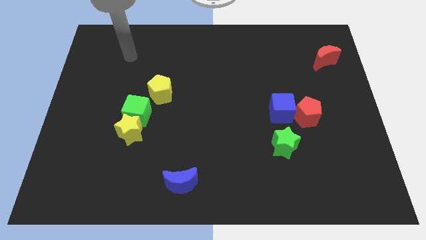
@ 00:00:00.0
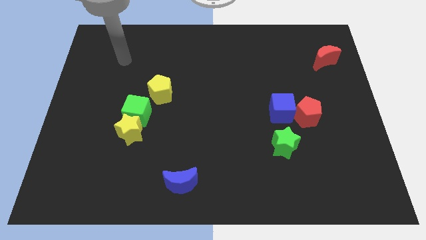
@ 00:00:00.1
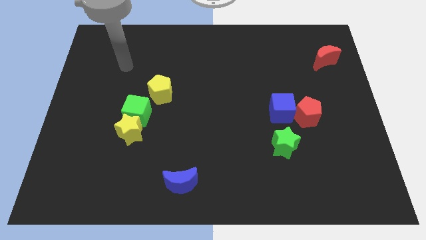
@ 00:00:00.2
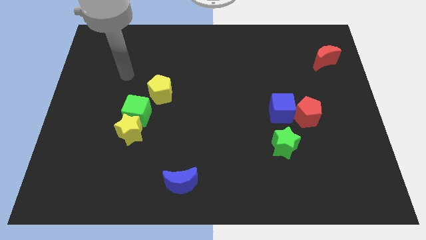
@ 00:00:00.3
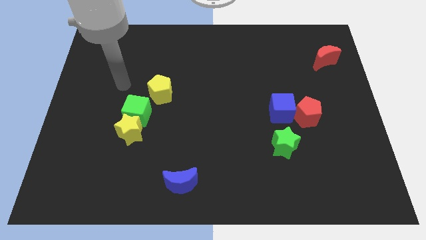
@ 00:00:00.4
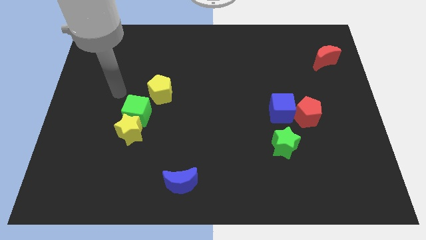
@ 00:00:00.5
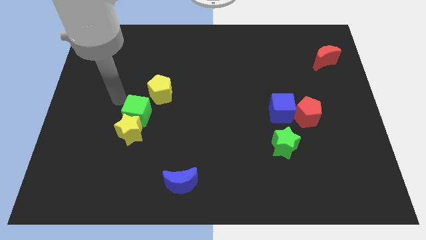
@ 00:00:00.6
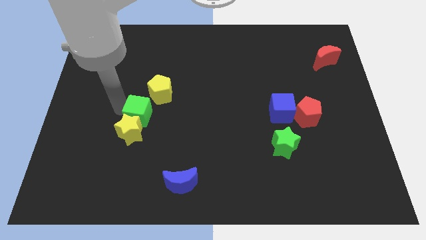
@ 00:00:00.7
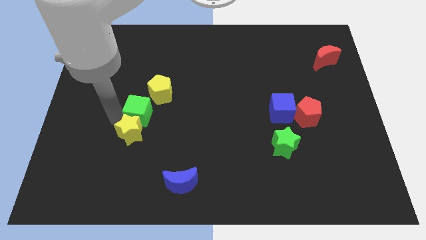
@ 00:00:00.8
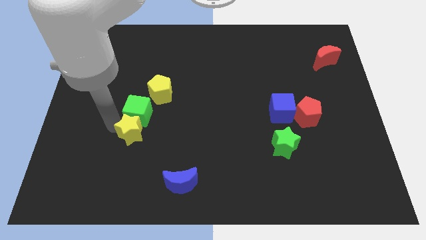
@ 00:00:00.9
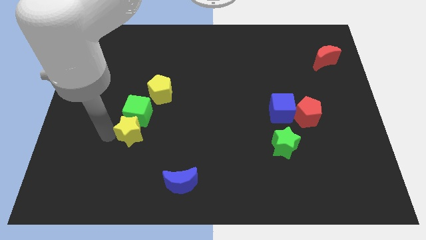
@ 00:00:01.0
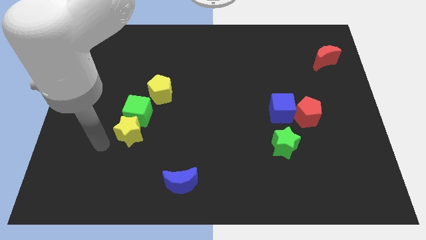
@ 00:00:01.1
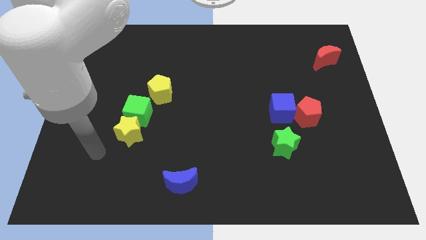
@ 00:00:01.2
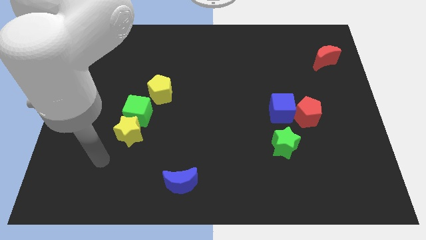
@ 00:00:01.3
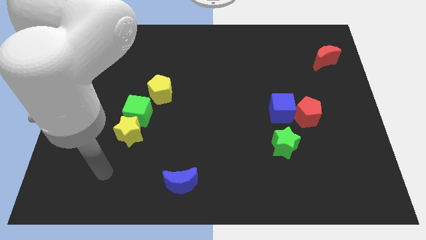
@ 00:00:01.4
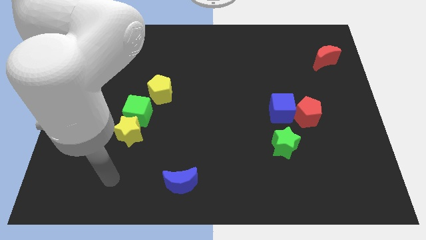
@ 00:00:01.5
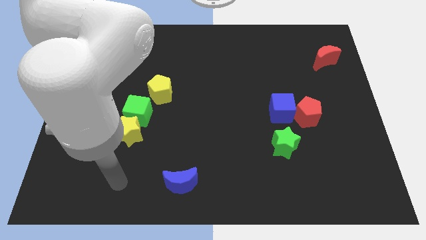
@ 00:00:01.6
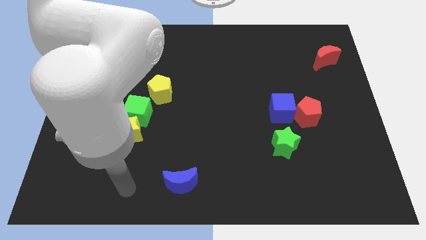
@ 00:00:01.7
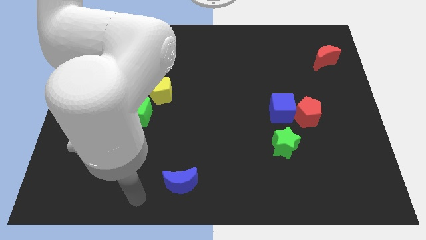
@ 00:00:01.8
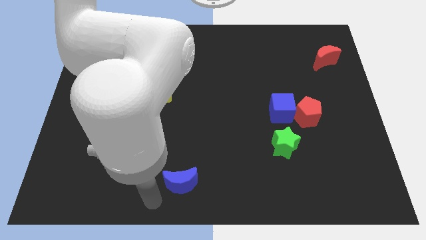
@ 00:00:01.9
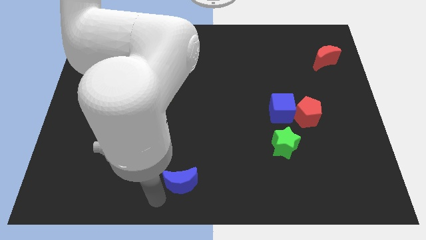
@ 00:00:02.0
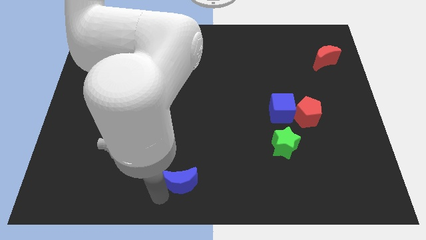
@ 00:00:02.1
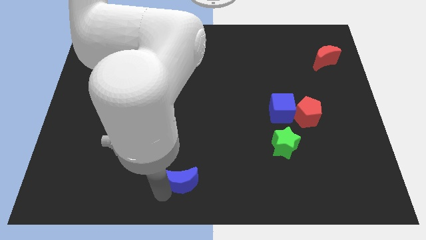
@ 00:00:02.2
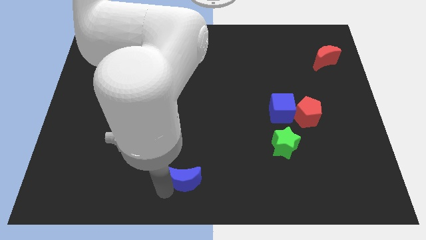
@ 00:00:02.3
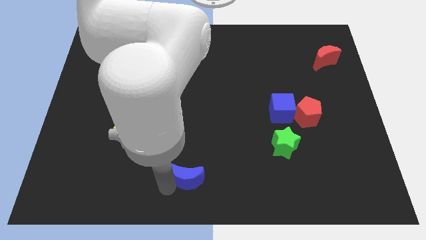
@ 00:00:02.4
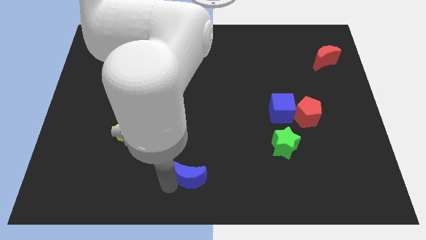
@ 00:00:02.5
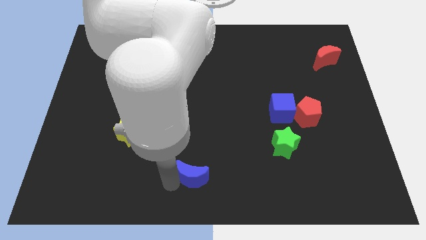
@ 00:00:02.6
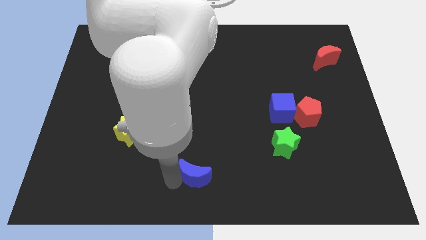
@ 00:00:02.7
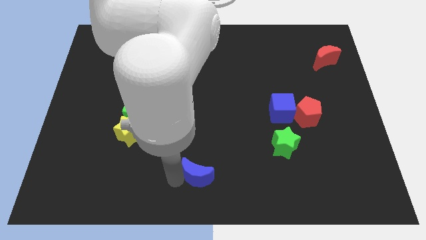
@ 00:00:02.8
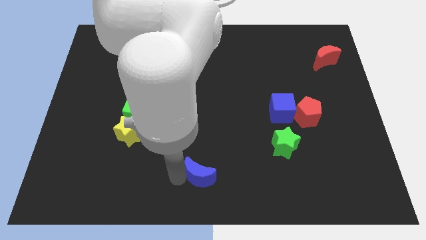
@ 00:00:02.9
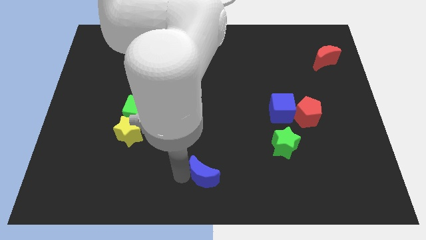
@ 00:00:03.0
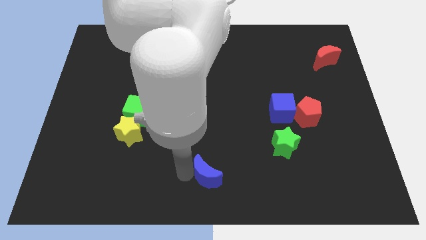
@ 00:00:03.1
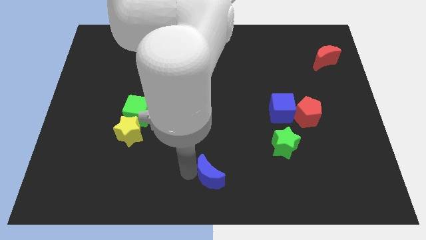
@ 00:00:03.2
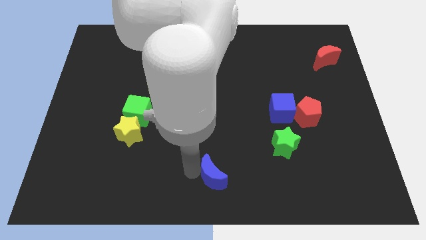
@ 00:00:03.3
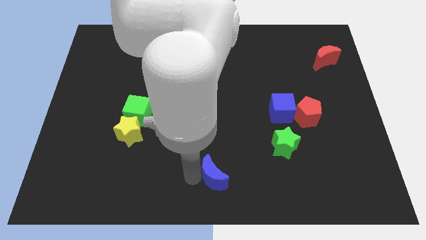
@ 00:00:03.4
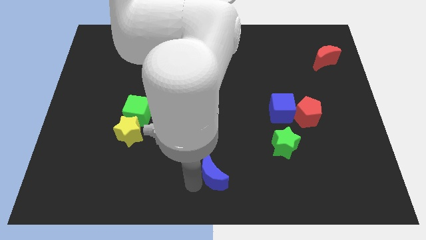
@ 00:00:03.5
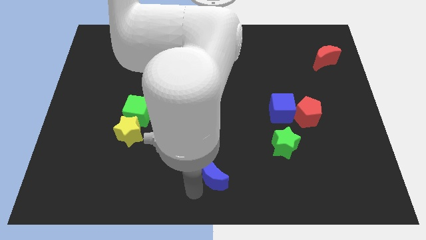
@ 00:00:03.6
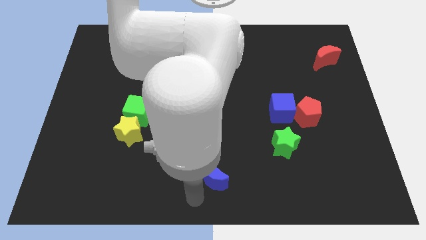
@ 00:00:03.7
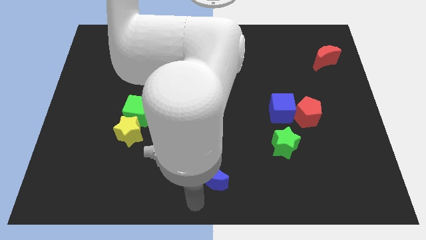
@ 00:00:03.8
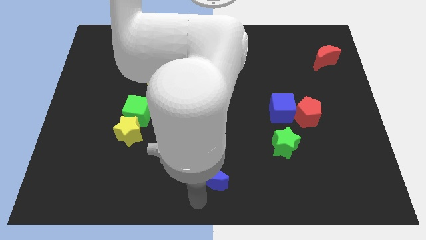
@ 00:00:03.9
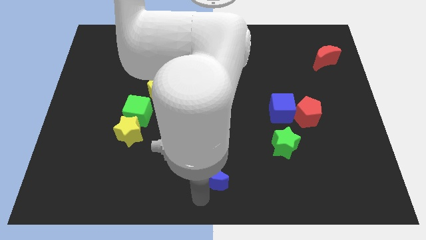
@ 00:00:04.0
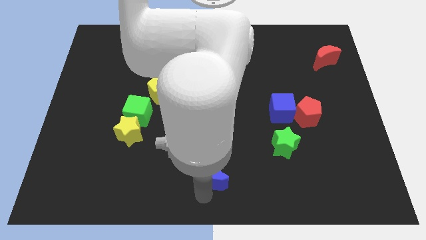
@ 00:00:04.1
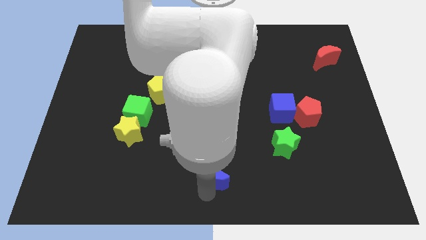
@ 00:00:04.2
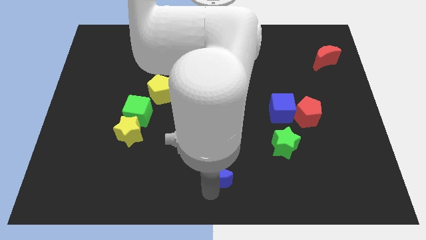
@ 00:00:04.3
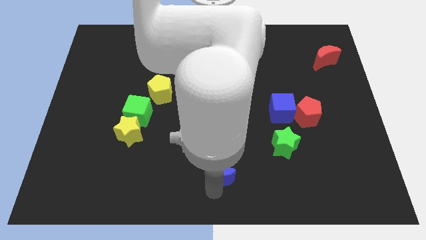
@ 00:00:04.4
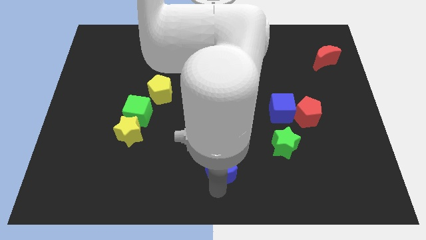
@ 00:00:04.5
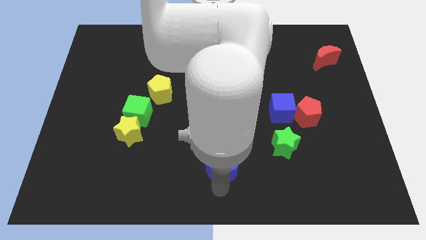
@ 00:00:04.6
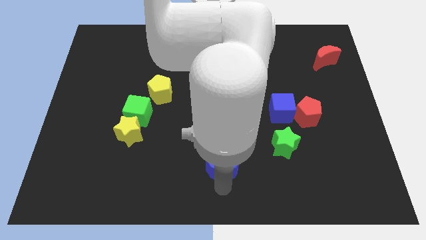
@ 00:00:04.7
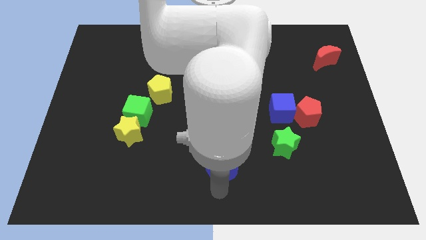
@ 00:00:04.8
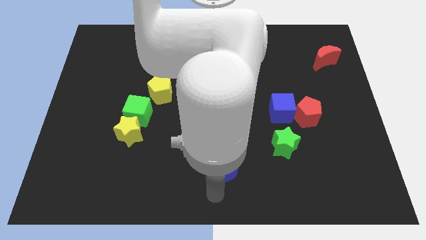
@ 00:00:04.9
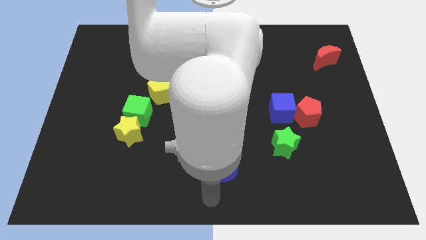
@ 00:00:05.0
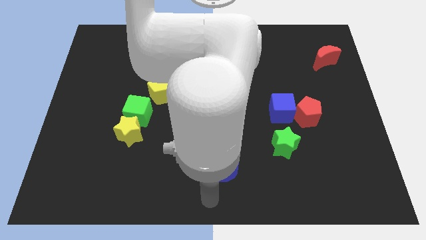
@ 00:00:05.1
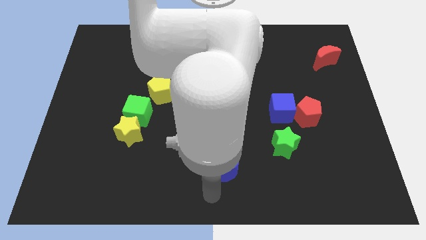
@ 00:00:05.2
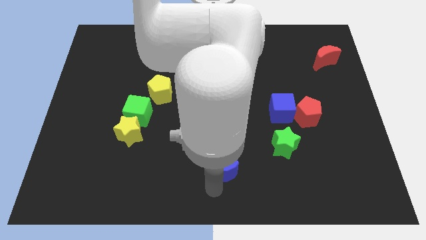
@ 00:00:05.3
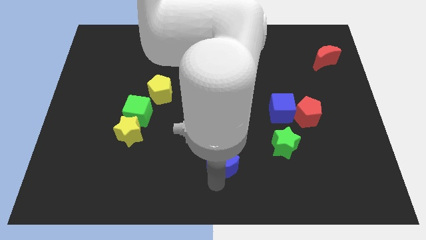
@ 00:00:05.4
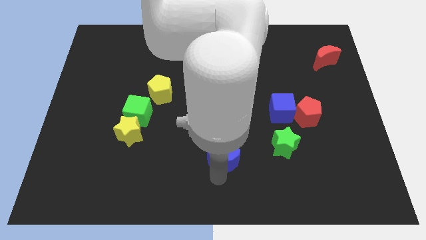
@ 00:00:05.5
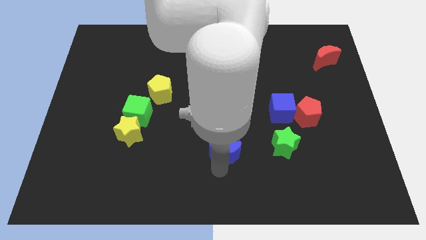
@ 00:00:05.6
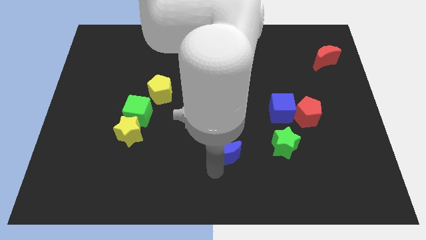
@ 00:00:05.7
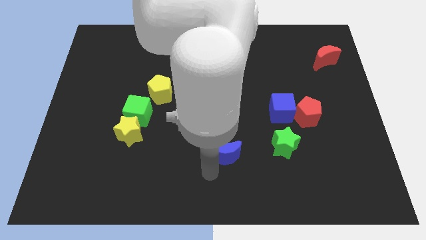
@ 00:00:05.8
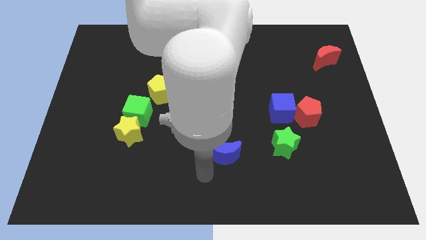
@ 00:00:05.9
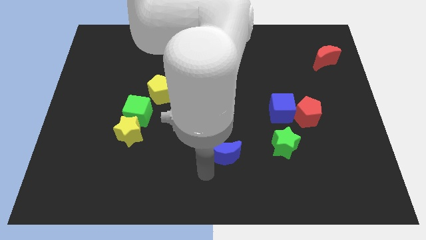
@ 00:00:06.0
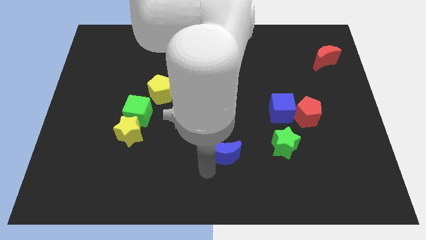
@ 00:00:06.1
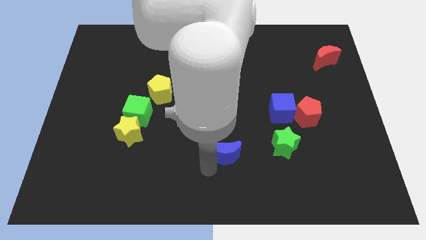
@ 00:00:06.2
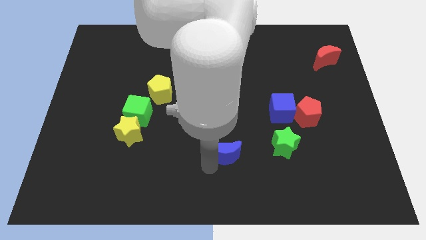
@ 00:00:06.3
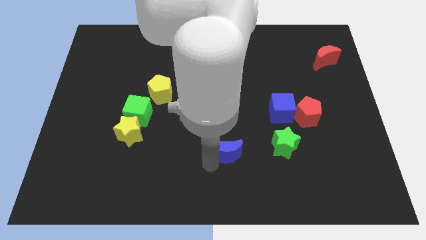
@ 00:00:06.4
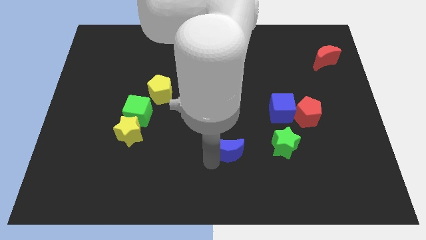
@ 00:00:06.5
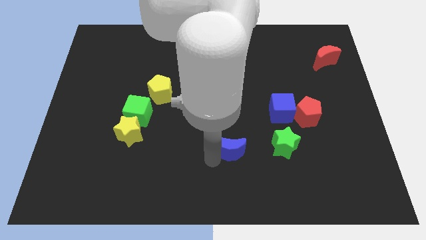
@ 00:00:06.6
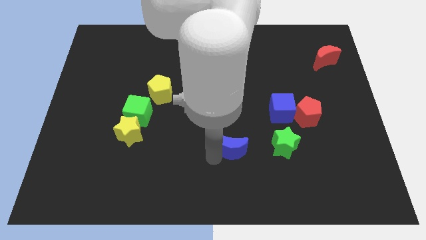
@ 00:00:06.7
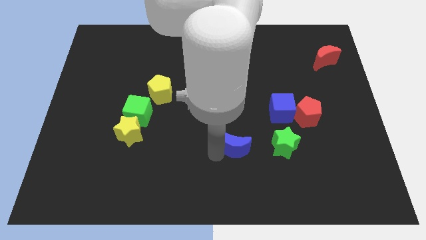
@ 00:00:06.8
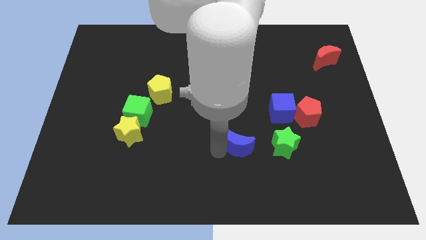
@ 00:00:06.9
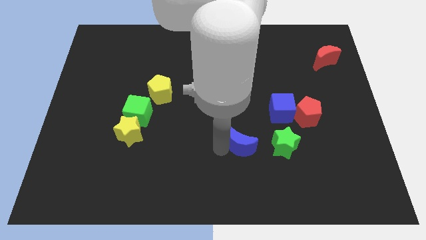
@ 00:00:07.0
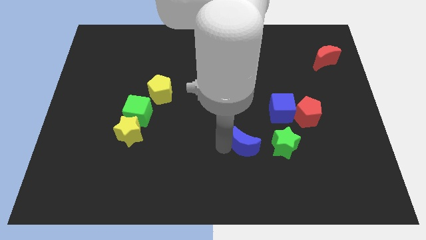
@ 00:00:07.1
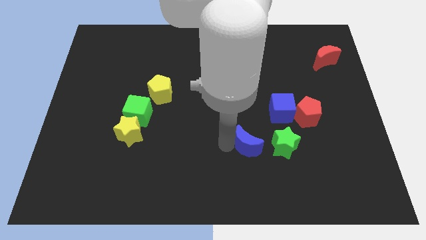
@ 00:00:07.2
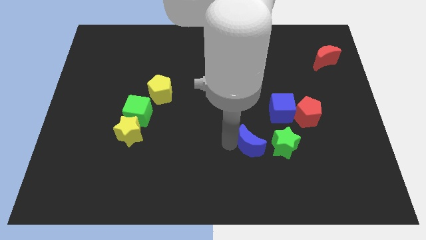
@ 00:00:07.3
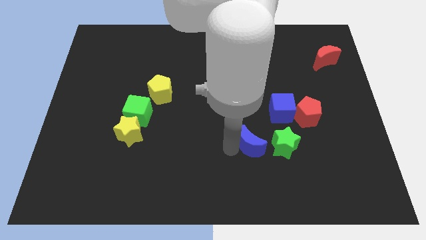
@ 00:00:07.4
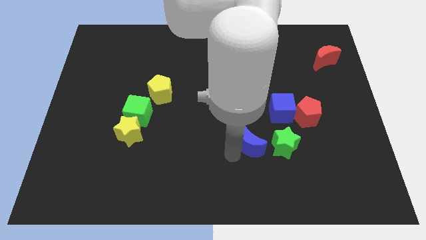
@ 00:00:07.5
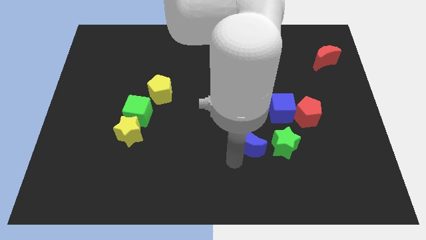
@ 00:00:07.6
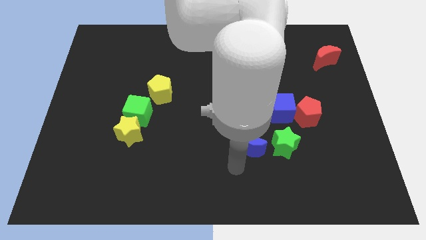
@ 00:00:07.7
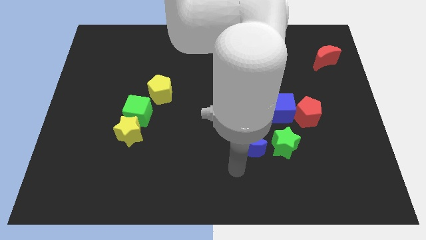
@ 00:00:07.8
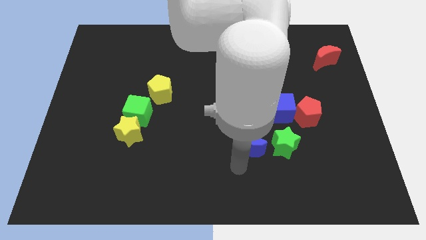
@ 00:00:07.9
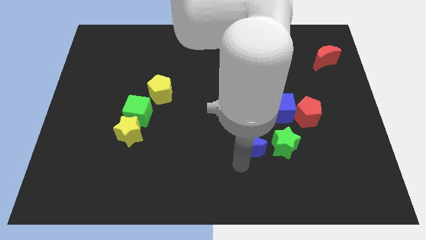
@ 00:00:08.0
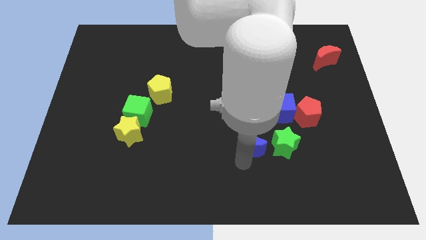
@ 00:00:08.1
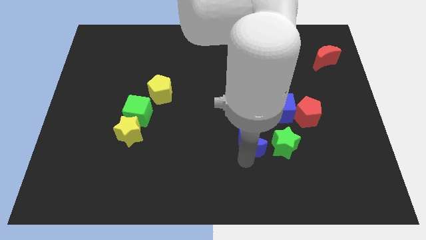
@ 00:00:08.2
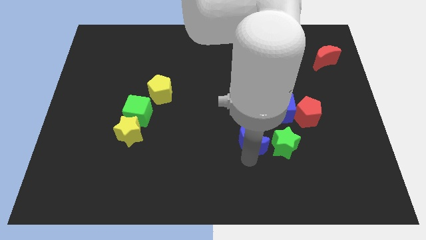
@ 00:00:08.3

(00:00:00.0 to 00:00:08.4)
slide the blue moon to the top left of the green star
